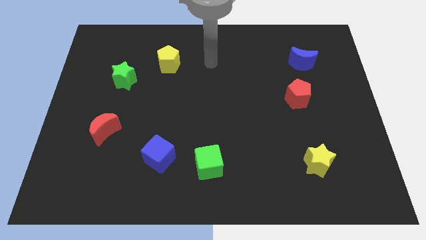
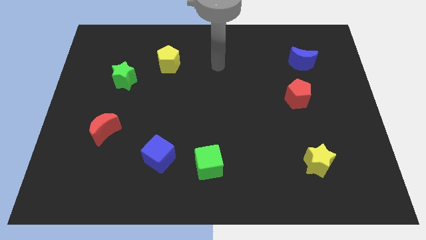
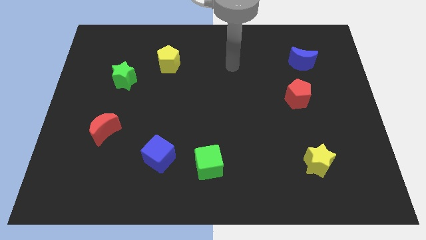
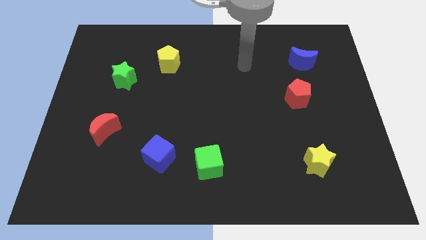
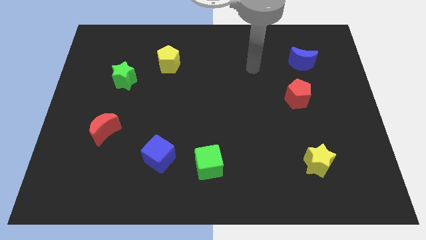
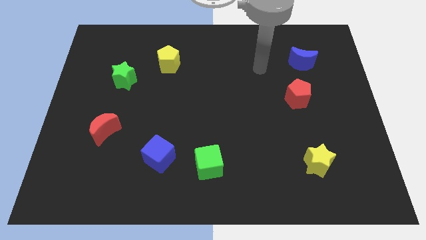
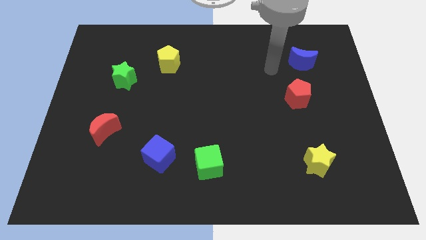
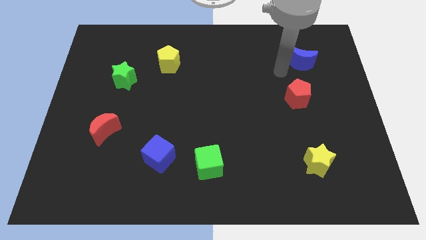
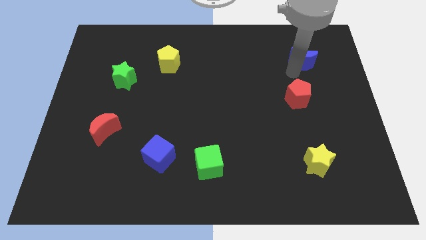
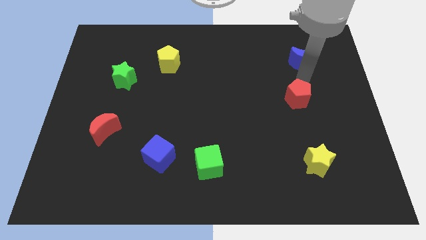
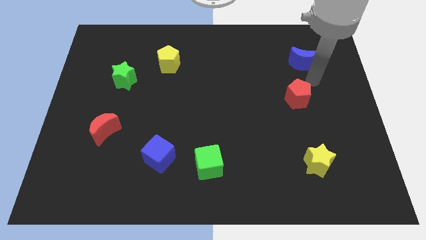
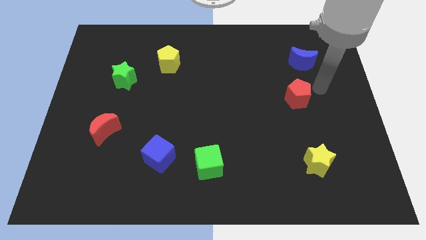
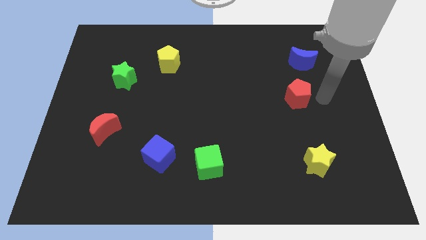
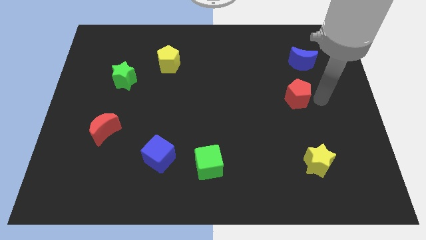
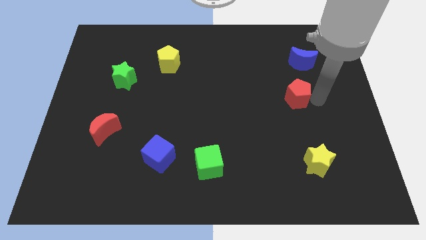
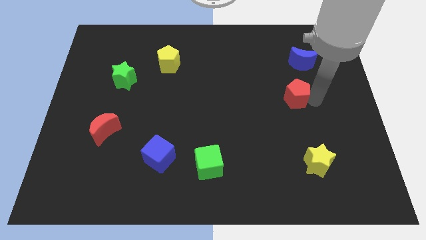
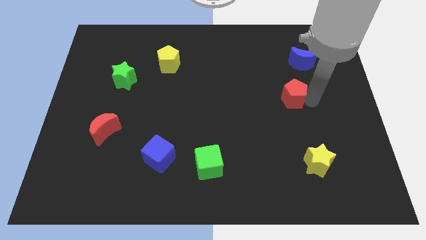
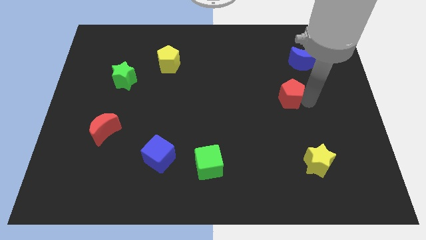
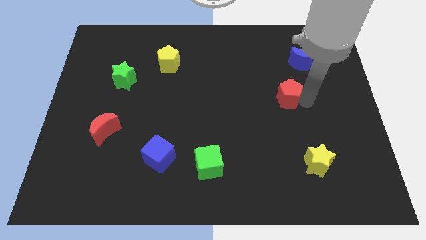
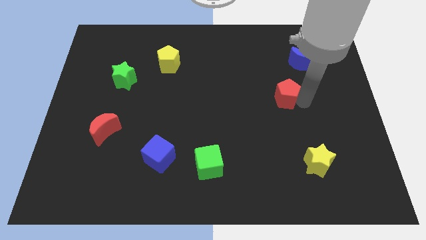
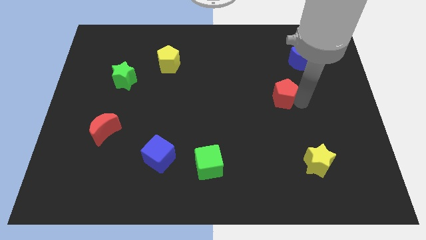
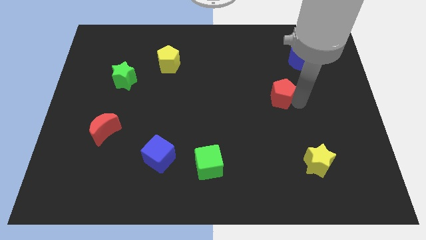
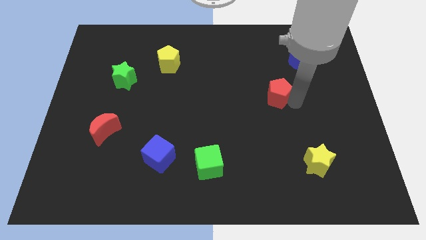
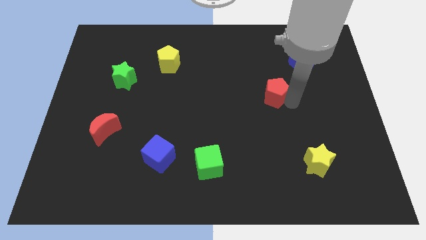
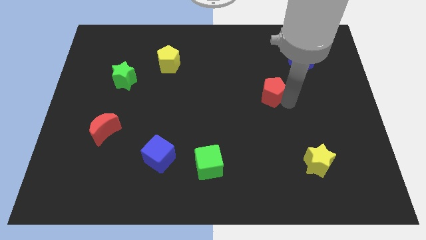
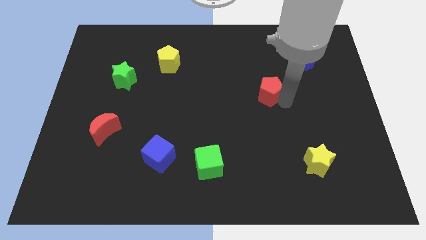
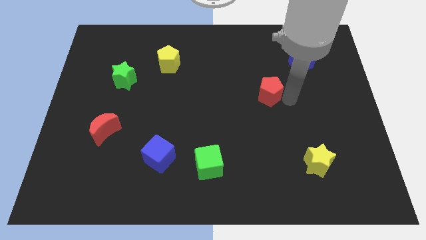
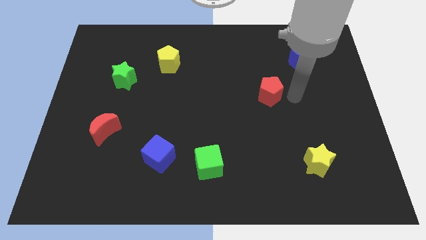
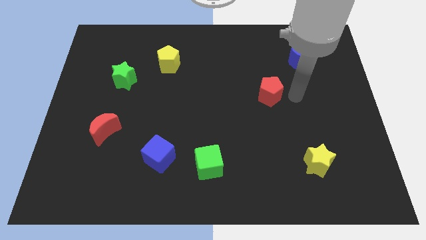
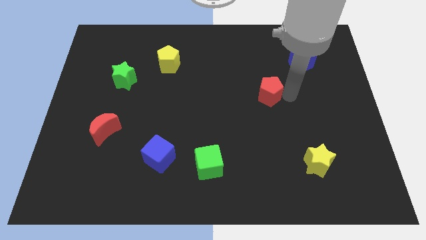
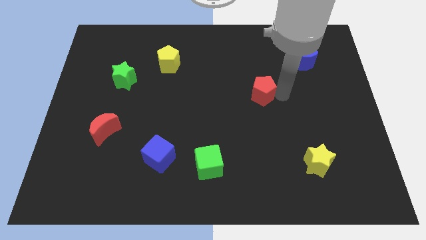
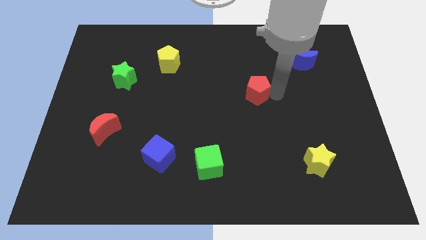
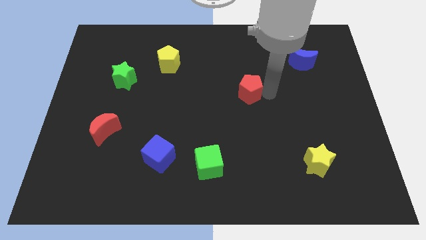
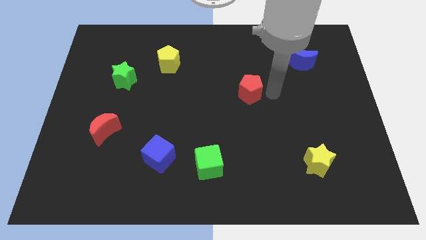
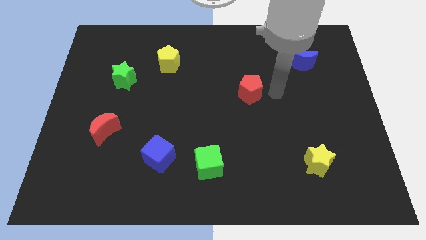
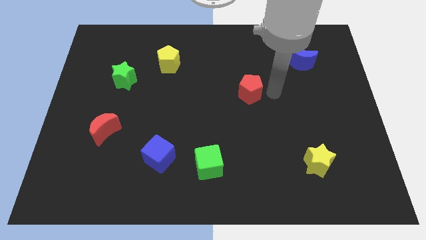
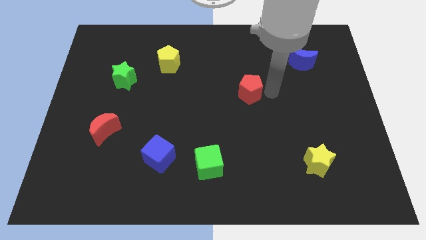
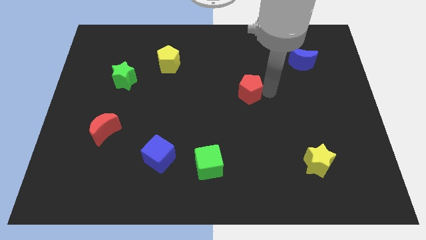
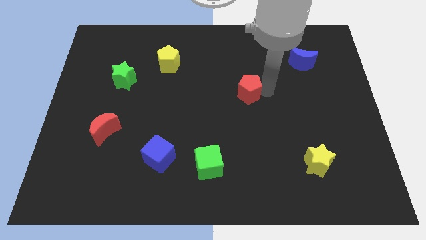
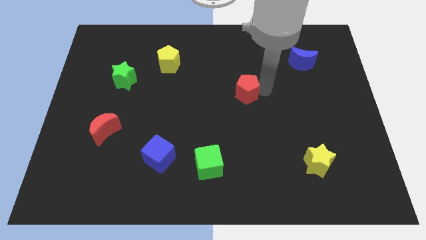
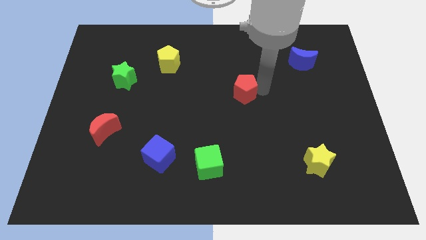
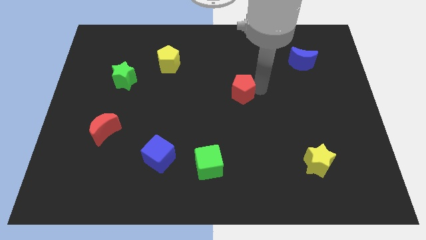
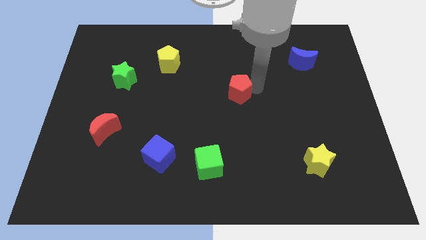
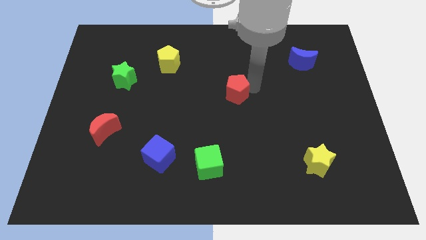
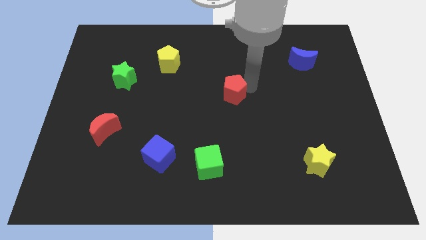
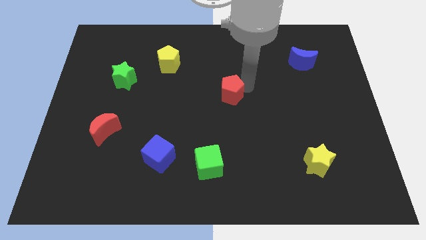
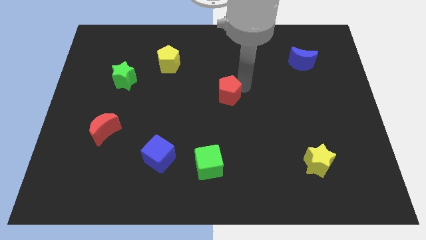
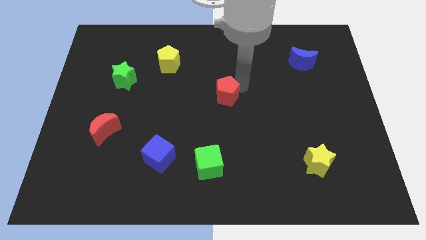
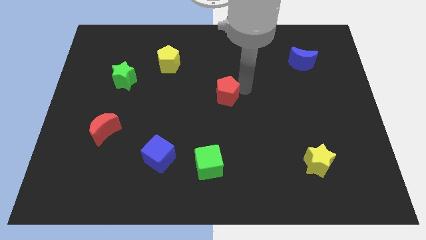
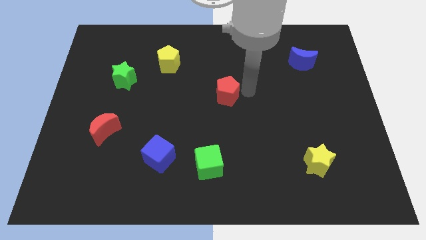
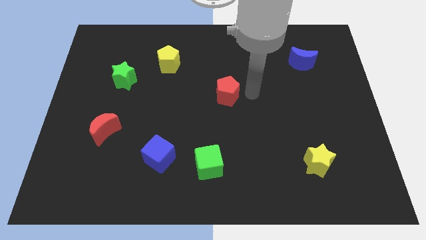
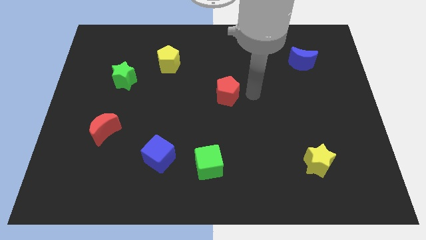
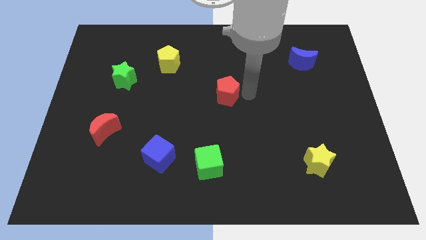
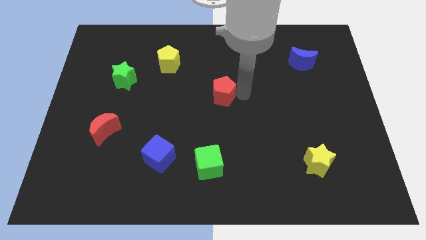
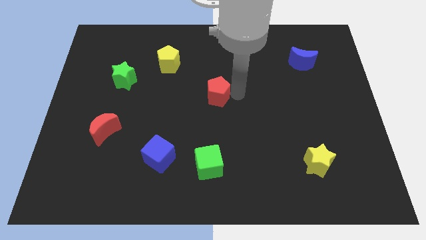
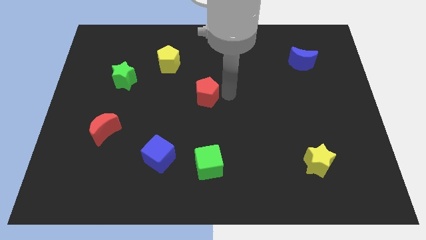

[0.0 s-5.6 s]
move the red pentagon left

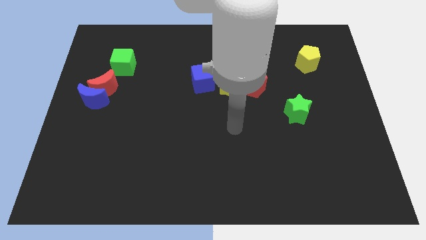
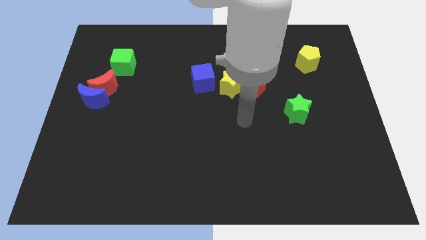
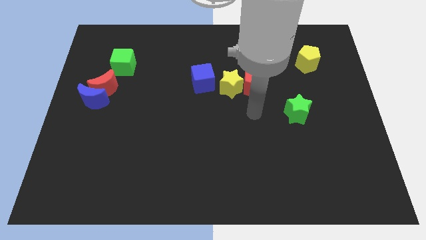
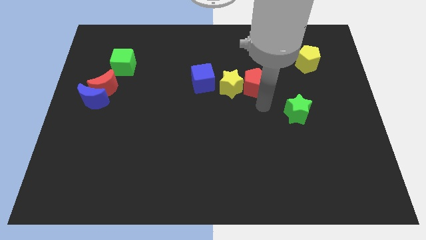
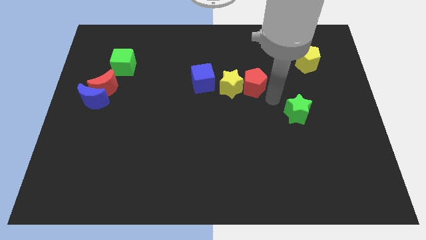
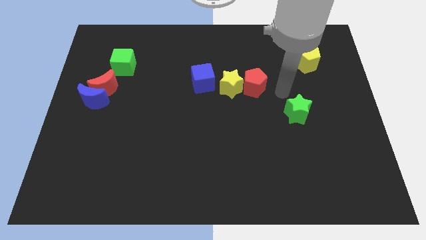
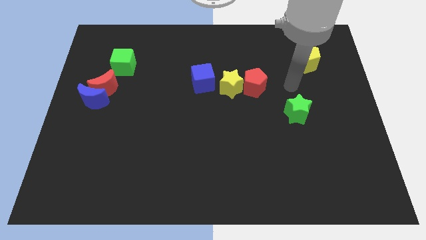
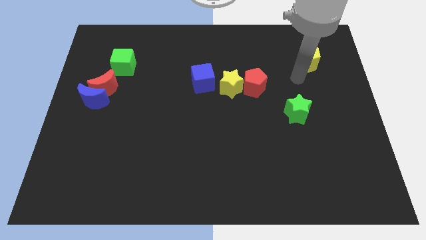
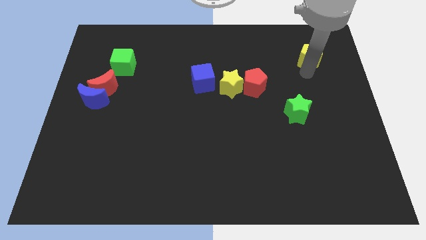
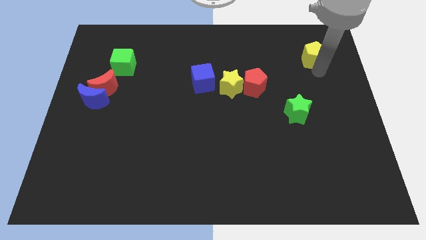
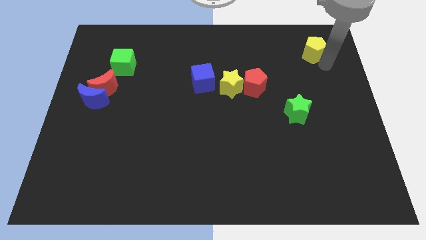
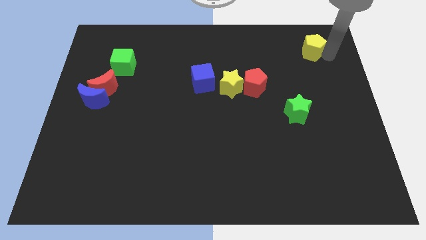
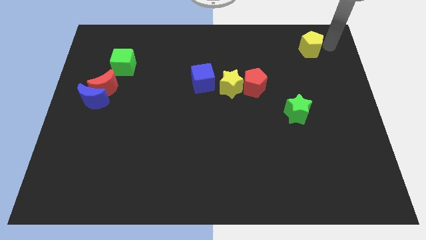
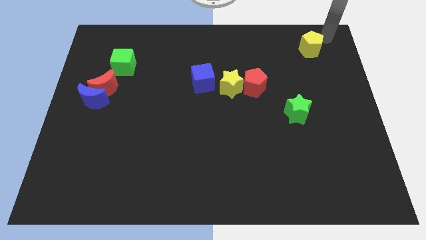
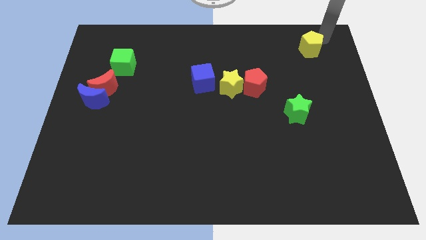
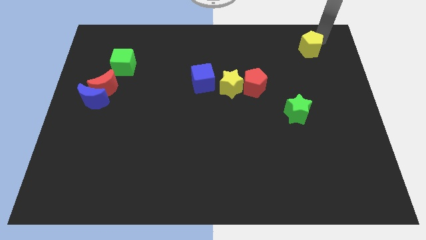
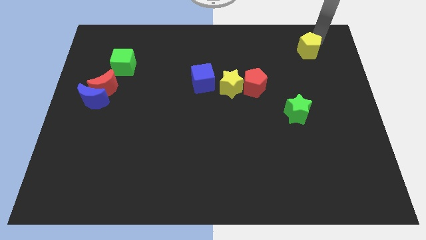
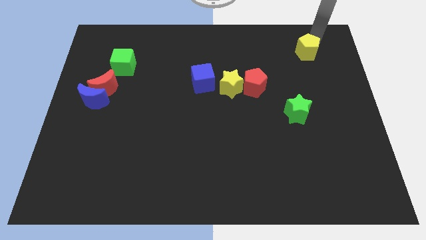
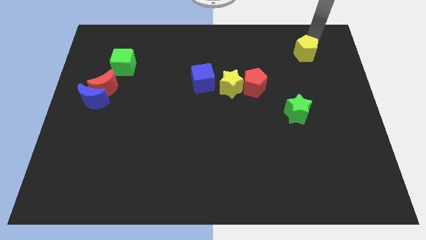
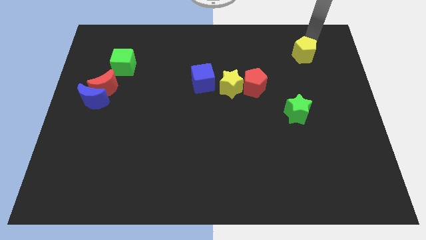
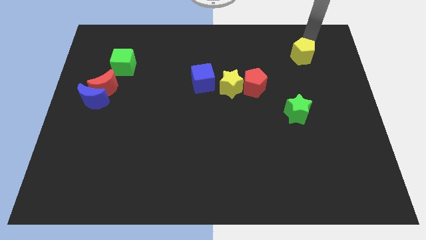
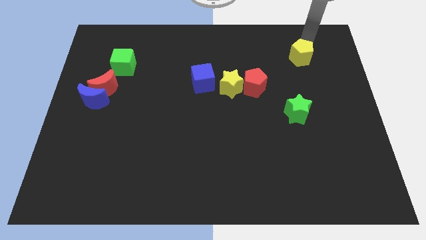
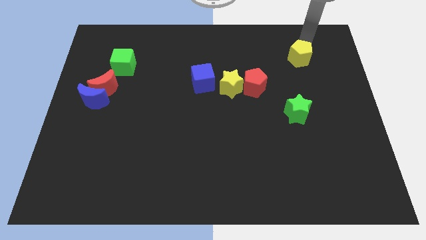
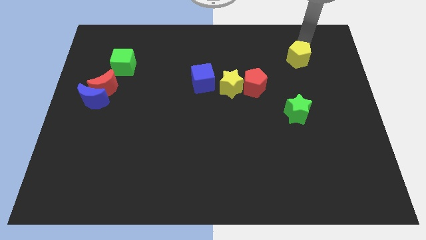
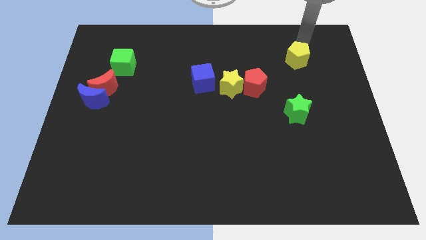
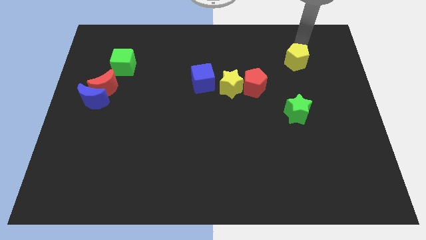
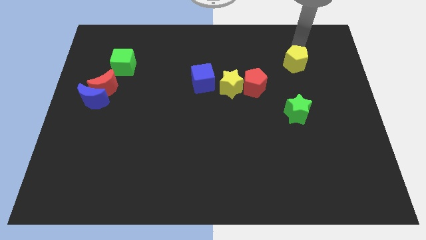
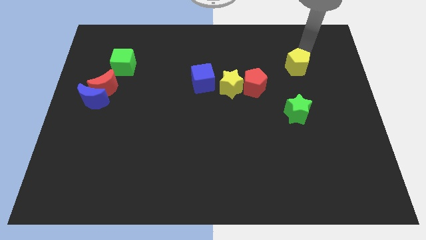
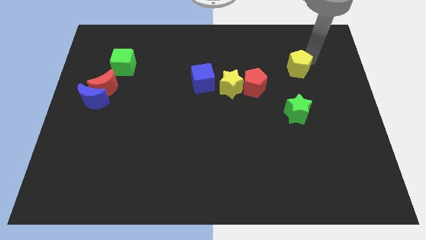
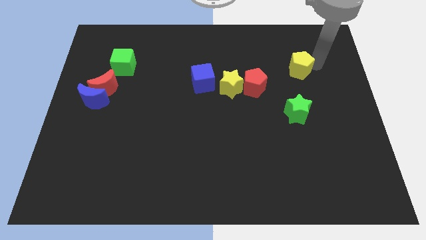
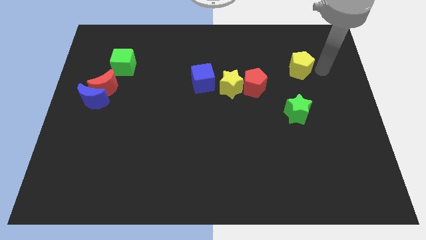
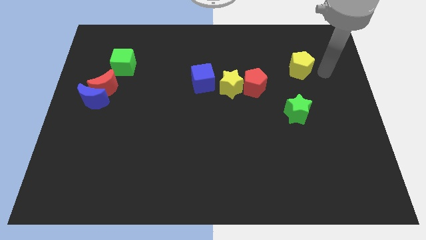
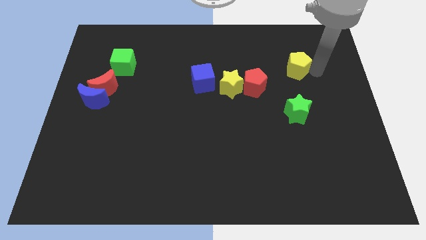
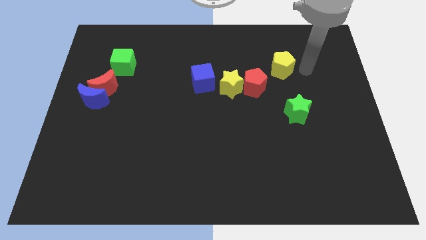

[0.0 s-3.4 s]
slightly move the yellow pentagon to the left
